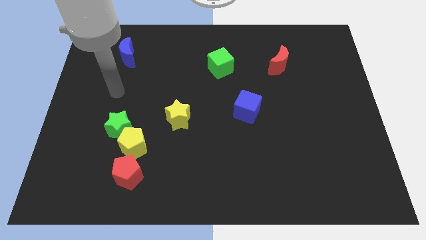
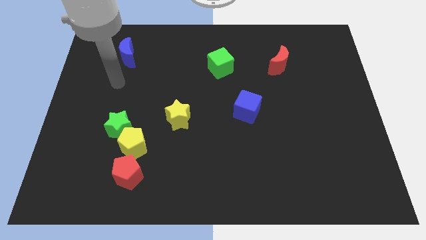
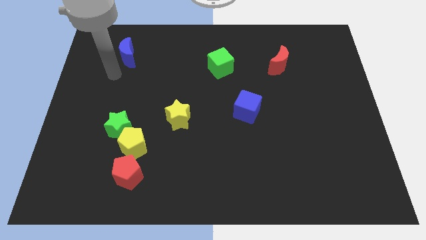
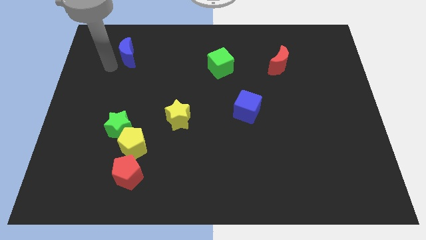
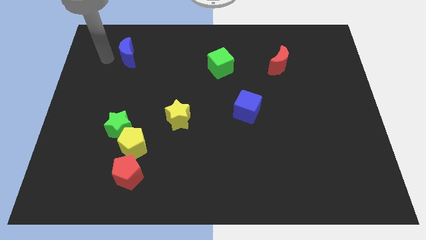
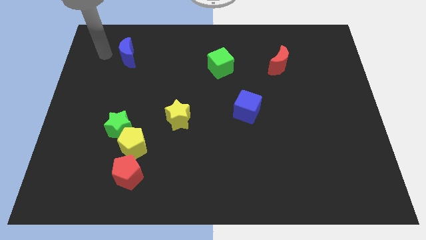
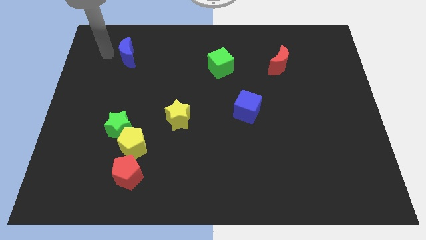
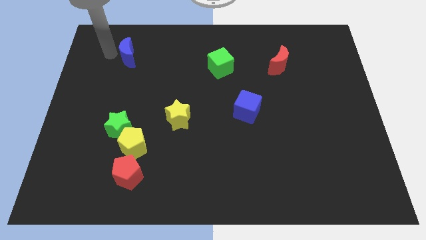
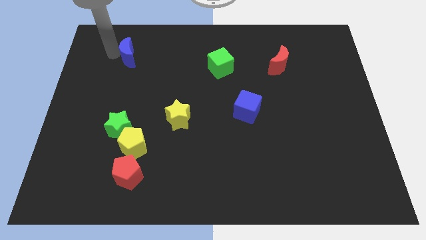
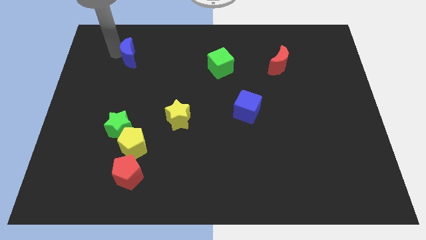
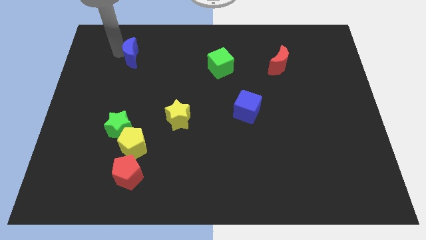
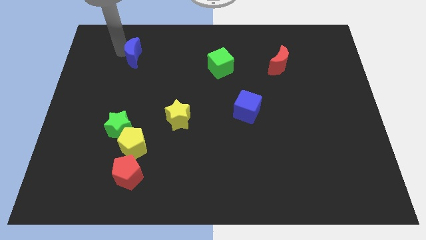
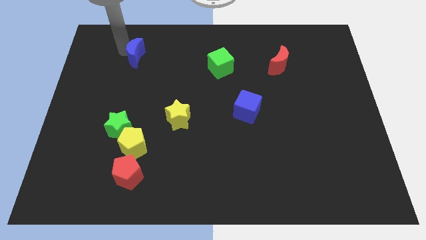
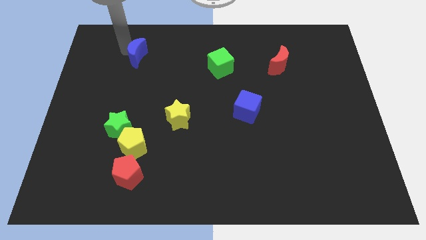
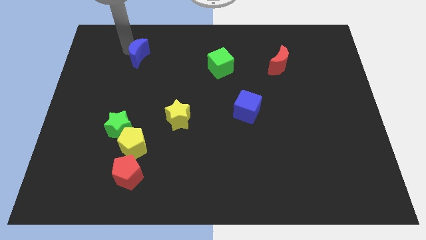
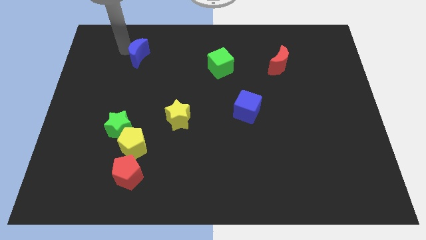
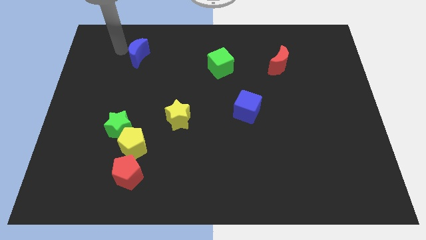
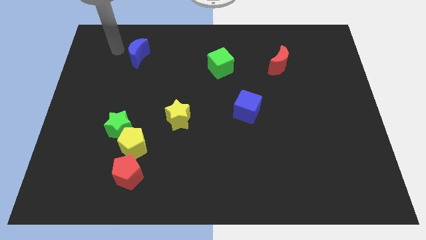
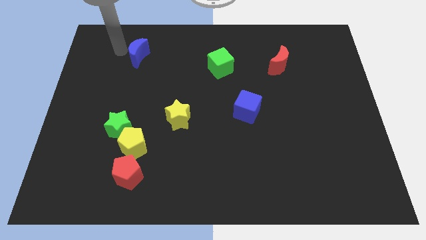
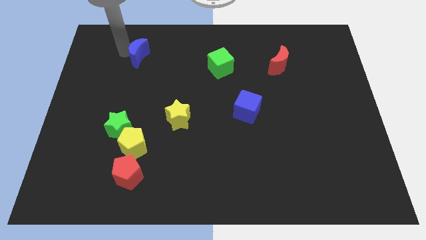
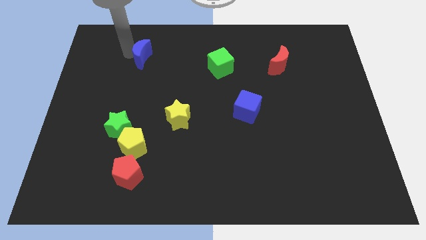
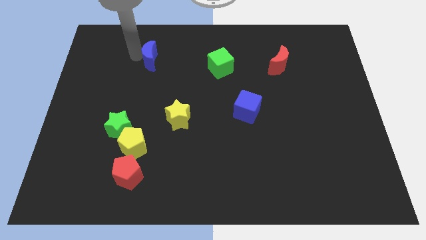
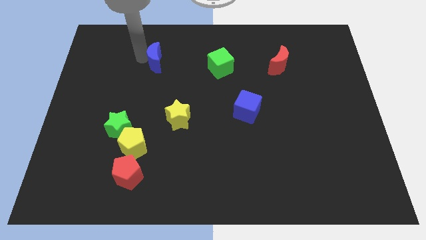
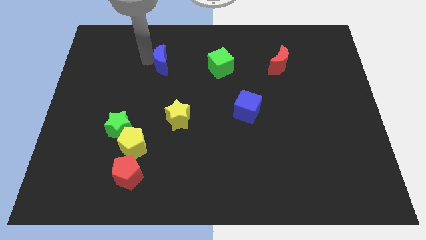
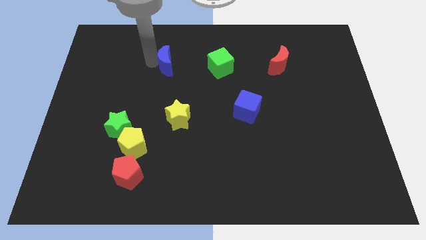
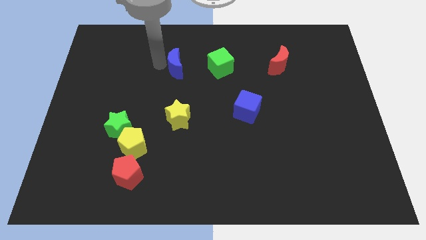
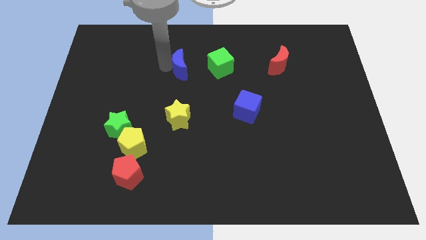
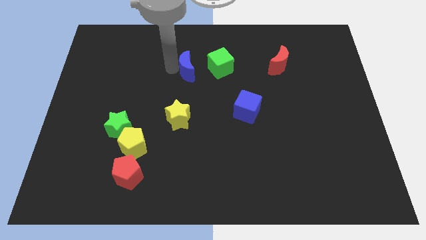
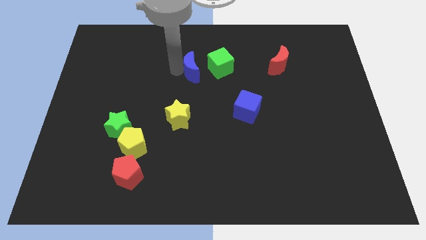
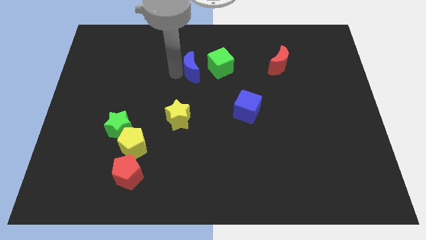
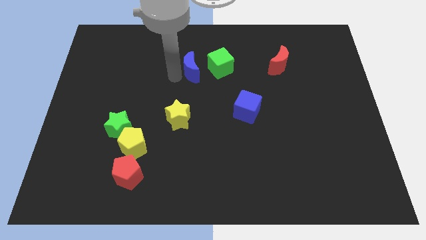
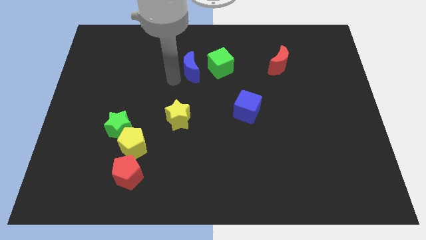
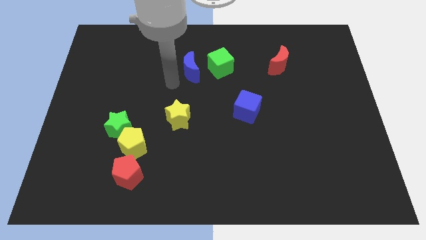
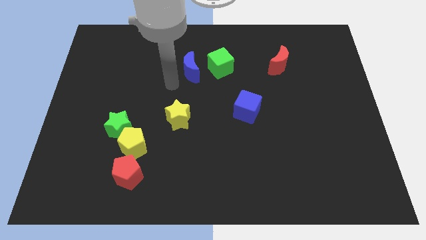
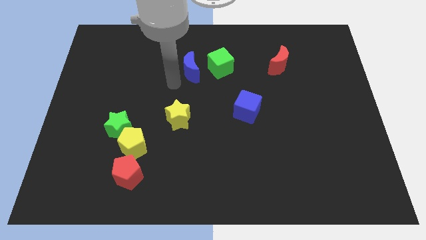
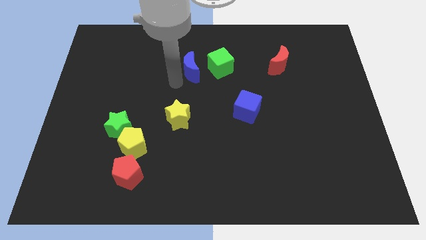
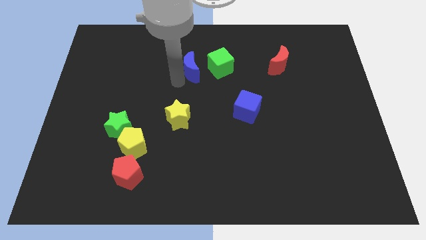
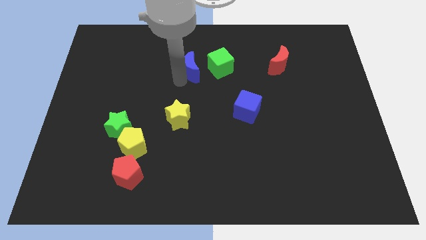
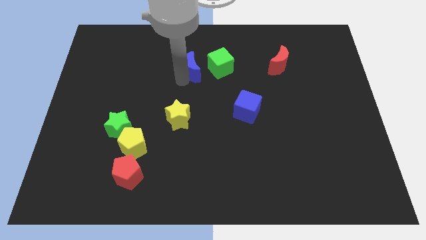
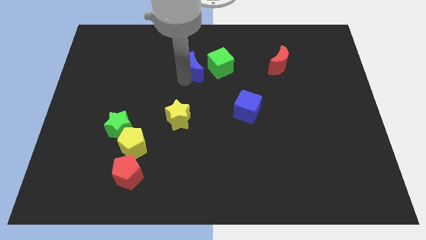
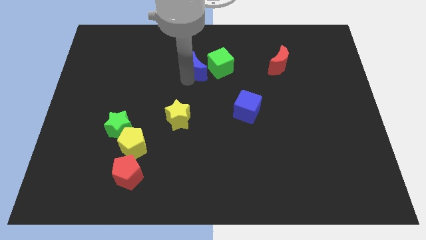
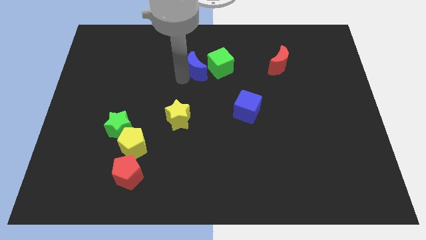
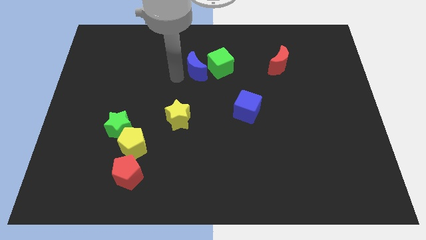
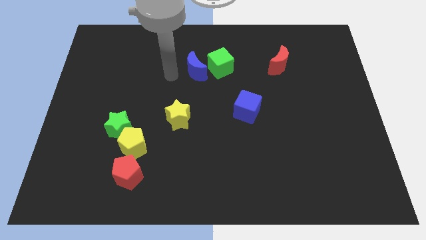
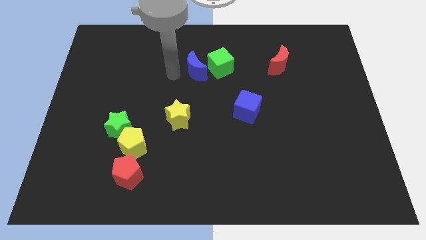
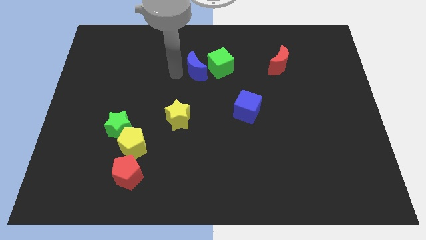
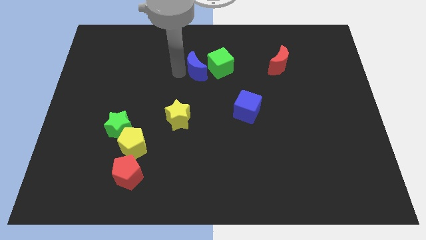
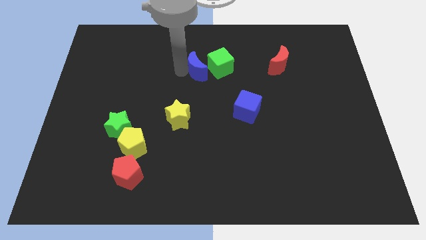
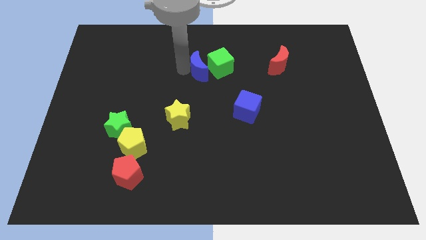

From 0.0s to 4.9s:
push the blue moon next to the green cube

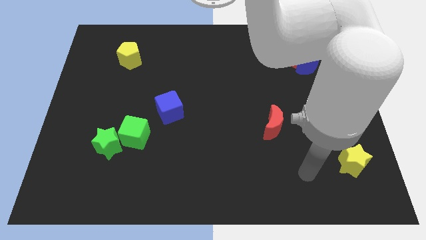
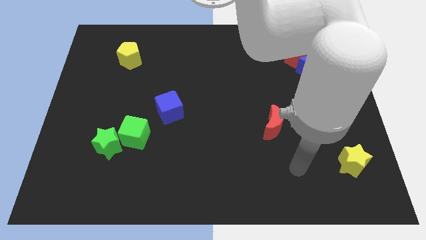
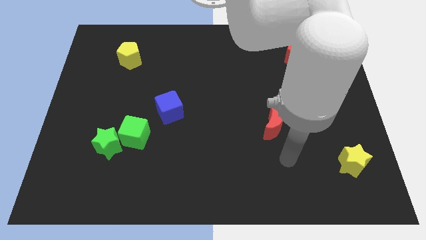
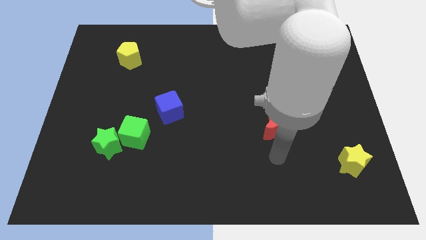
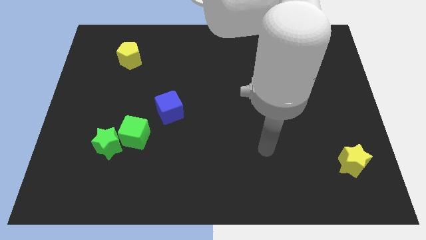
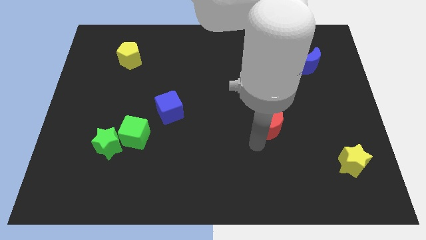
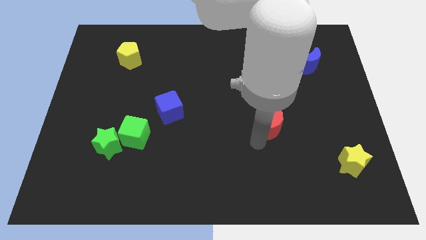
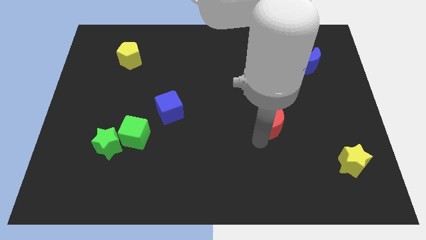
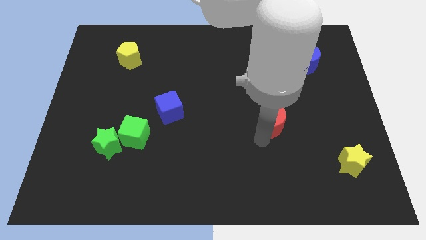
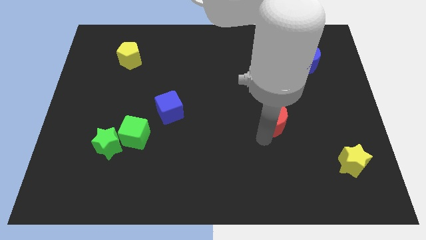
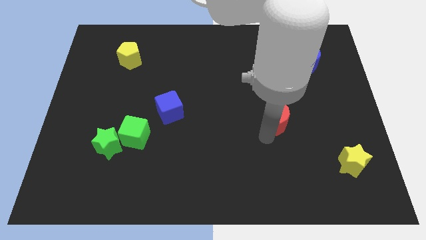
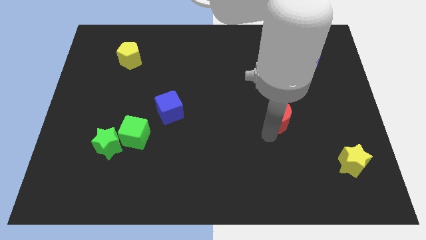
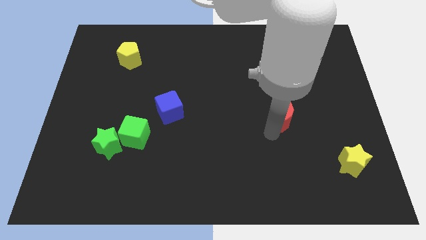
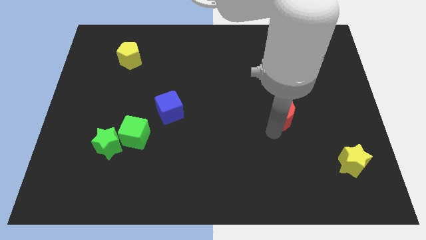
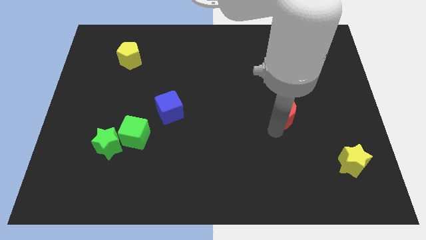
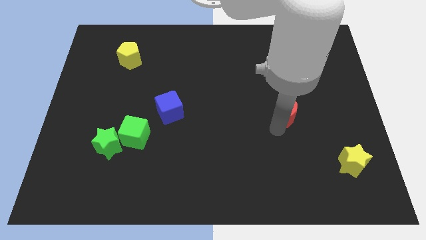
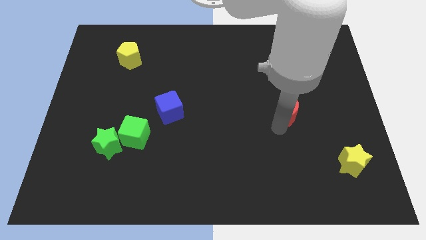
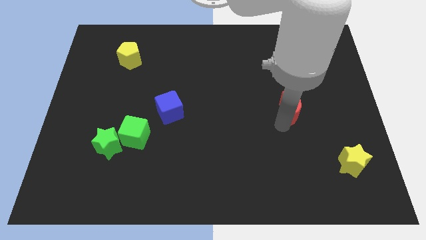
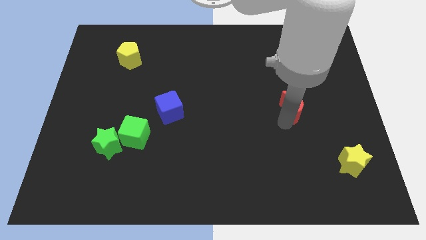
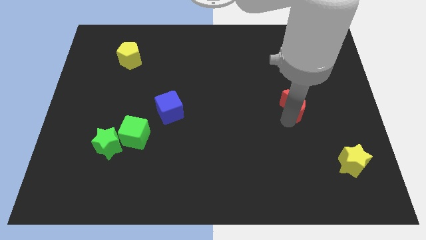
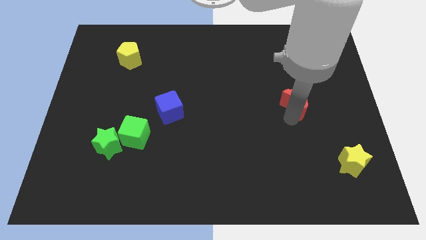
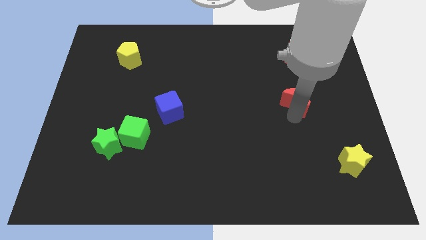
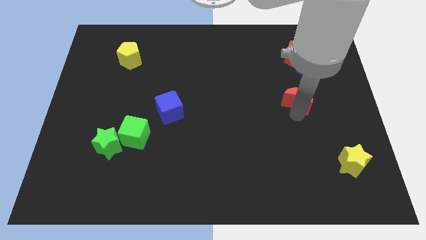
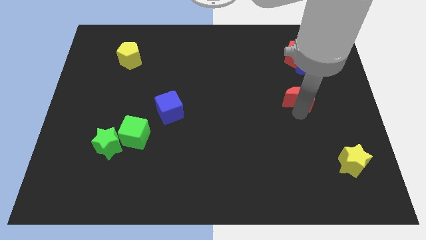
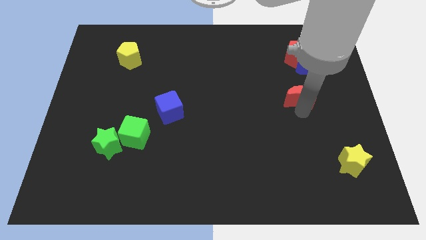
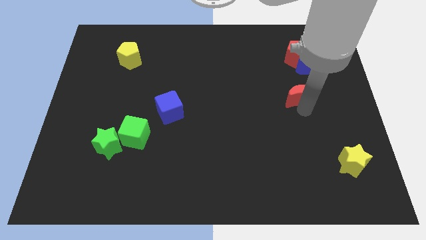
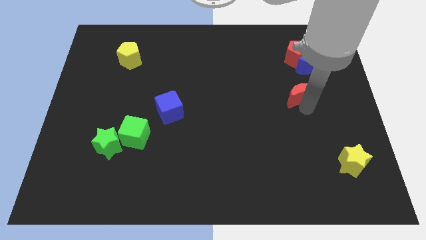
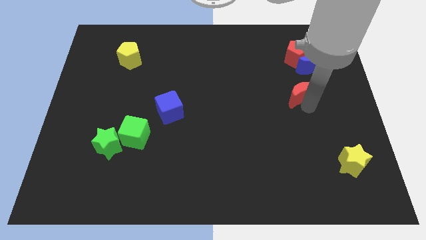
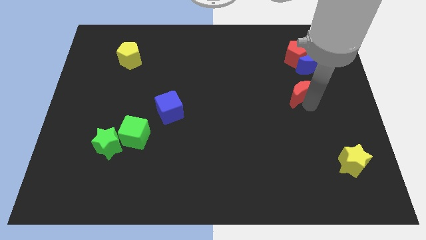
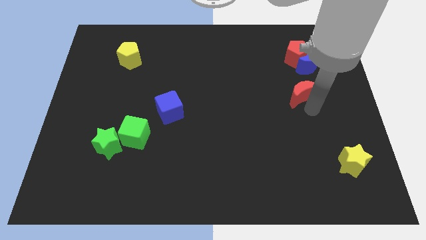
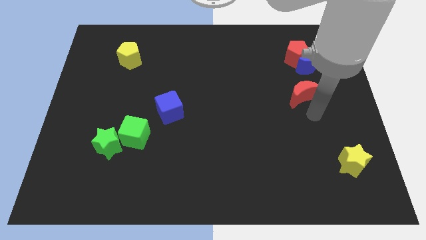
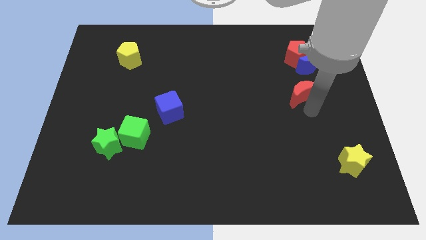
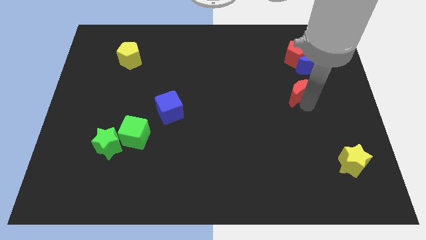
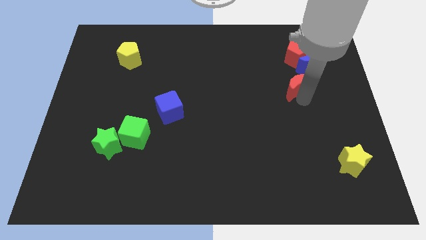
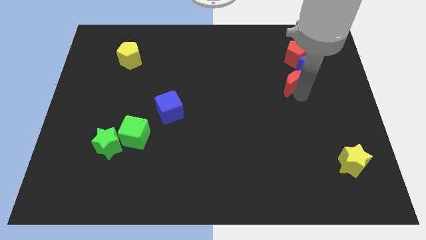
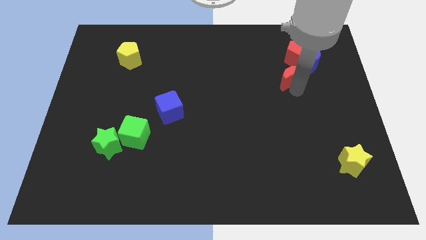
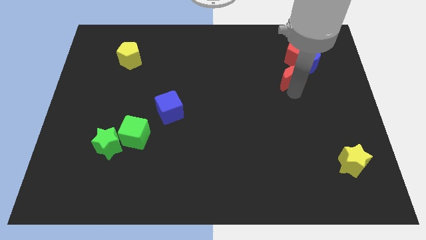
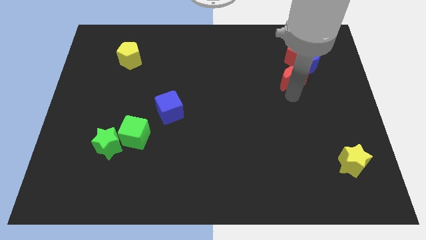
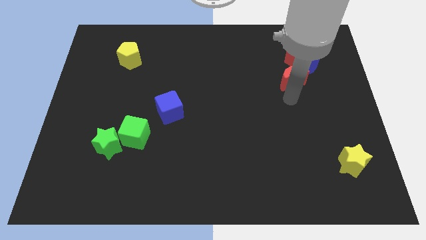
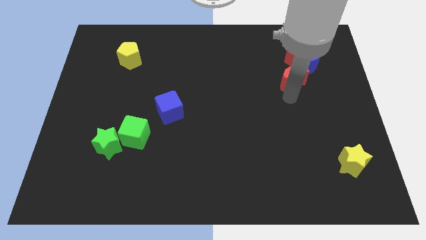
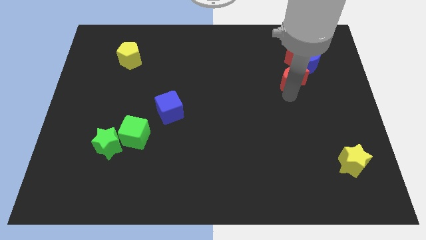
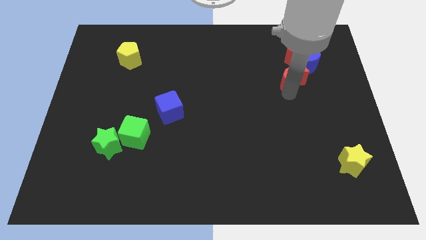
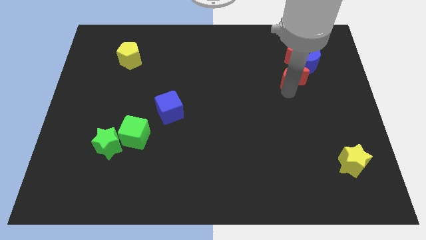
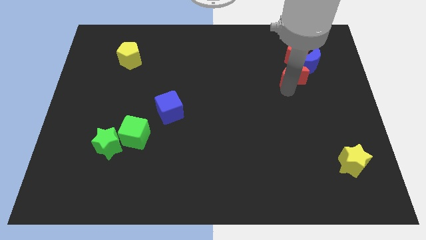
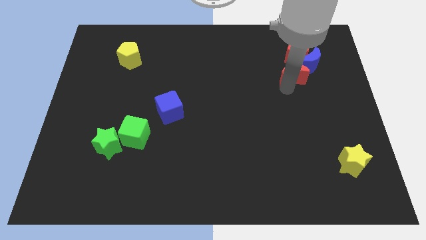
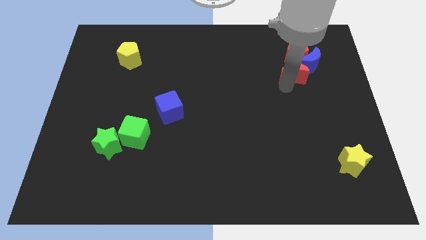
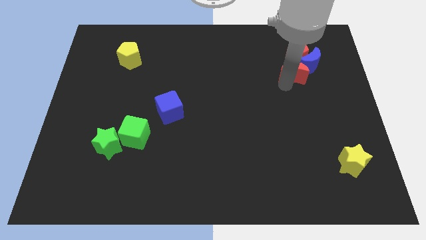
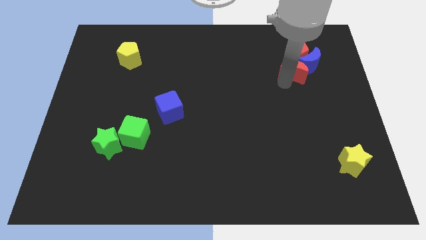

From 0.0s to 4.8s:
put the red moon close to the red pentagon
